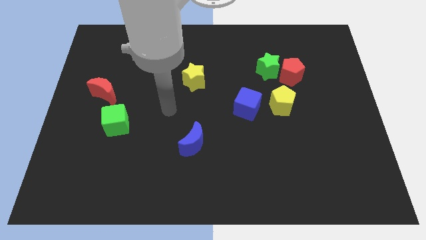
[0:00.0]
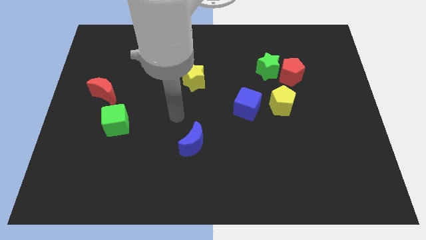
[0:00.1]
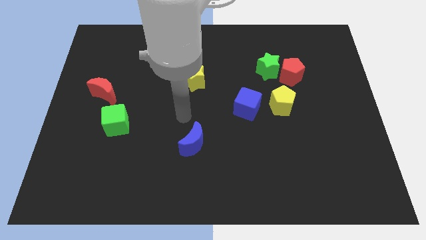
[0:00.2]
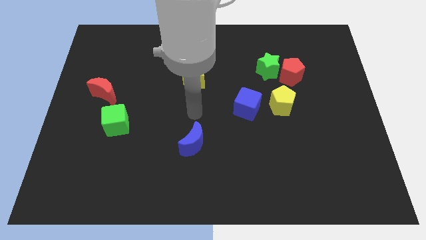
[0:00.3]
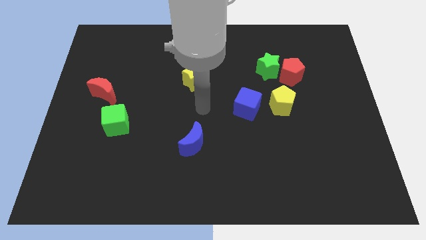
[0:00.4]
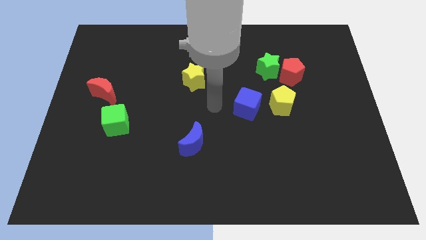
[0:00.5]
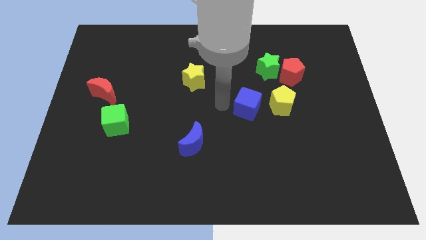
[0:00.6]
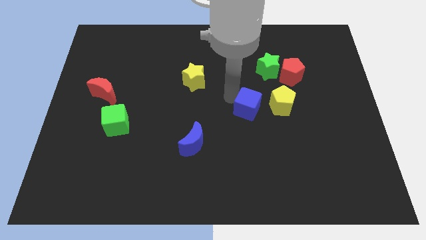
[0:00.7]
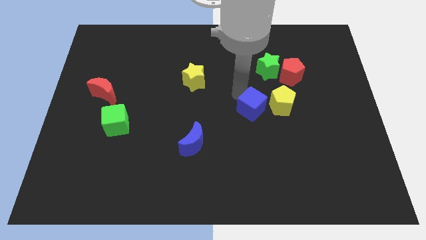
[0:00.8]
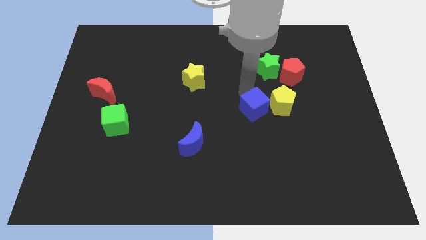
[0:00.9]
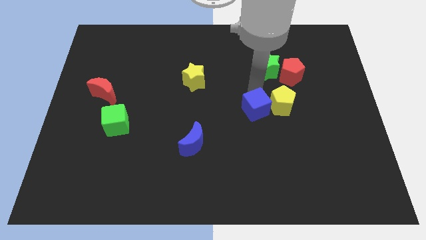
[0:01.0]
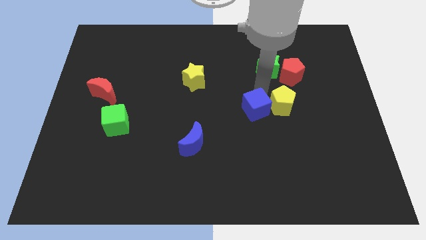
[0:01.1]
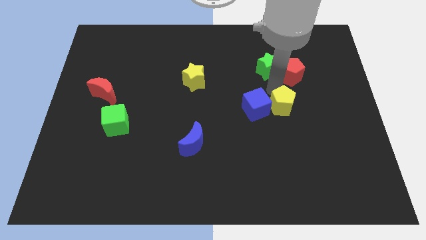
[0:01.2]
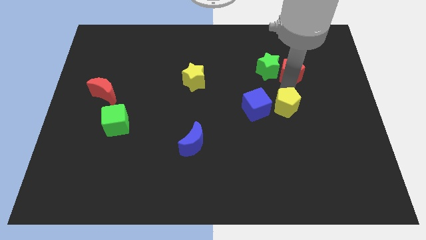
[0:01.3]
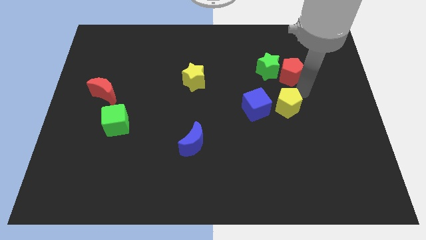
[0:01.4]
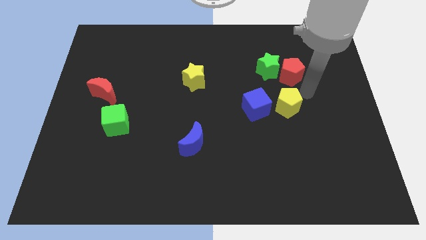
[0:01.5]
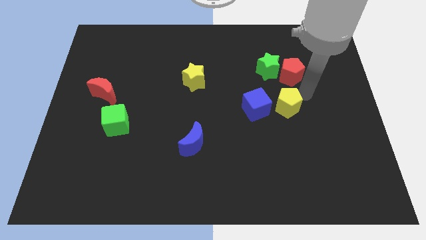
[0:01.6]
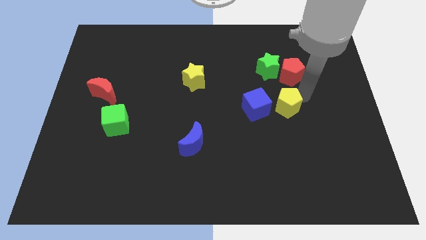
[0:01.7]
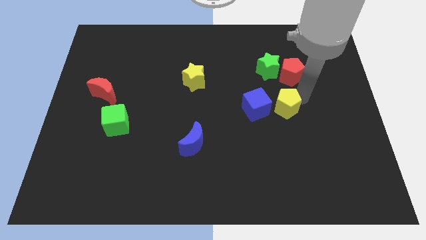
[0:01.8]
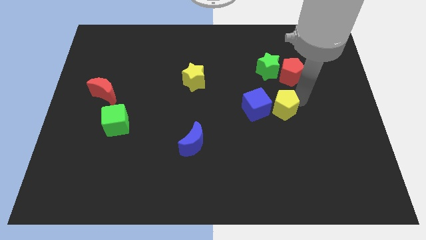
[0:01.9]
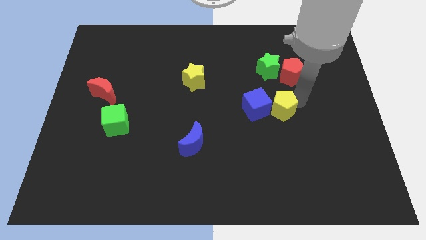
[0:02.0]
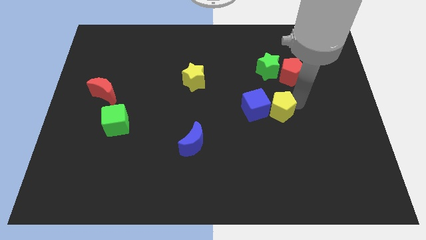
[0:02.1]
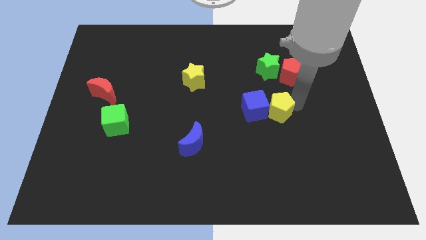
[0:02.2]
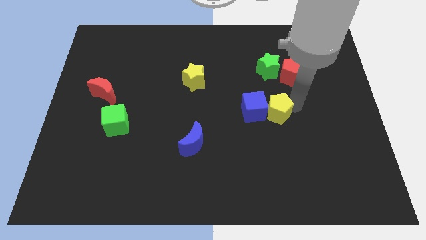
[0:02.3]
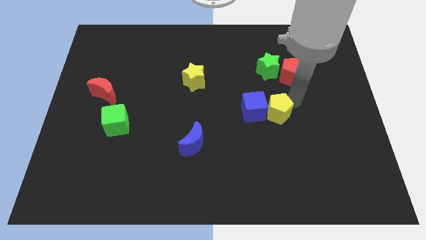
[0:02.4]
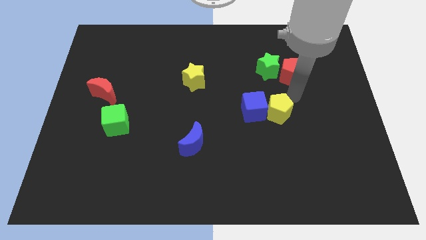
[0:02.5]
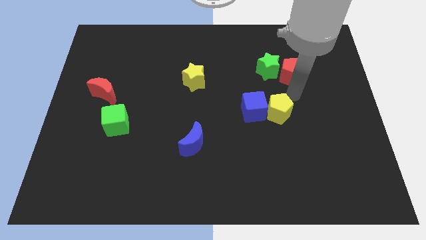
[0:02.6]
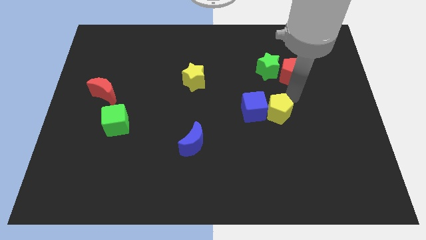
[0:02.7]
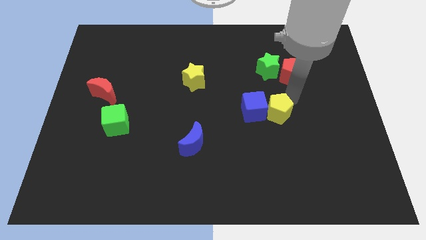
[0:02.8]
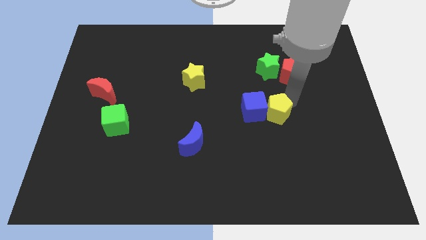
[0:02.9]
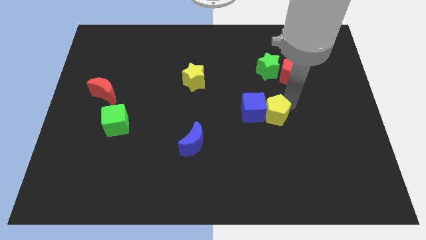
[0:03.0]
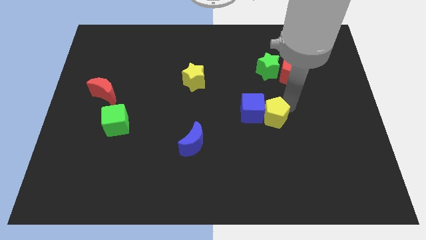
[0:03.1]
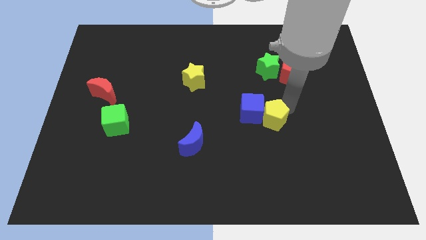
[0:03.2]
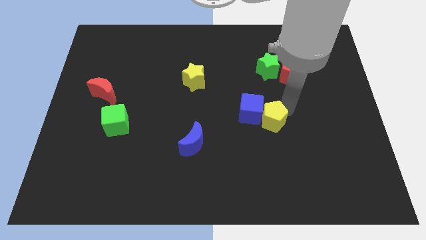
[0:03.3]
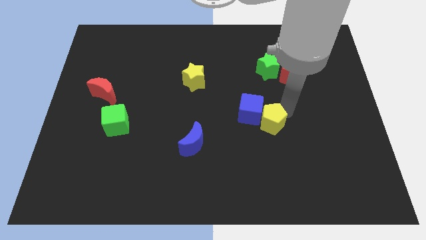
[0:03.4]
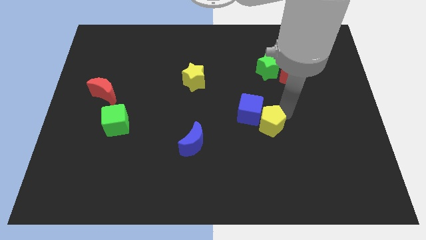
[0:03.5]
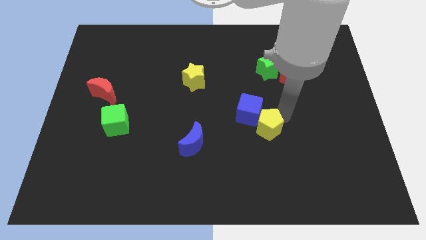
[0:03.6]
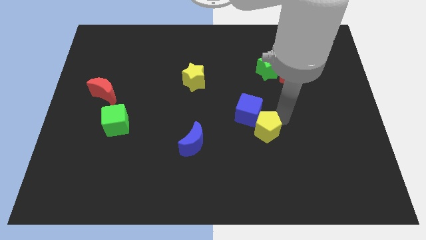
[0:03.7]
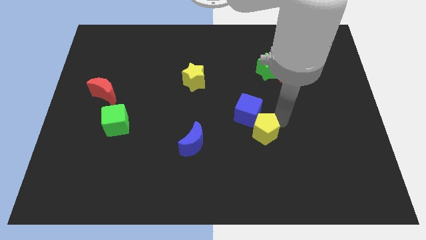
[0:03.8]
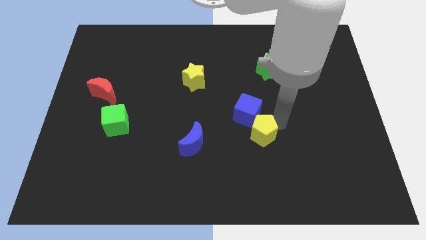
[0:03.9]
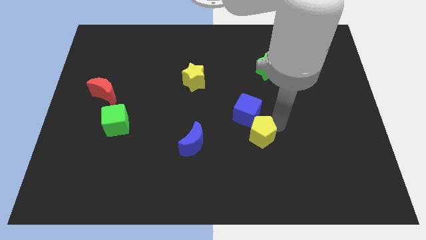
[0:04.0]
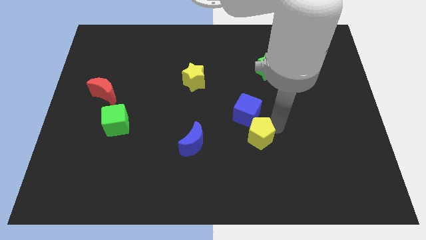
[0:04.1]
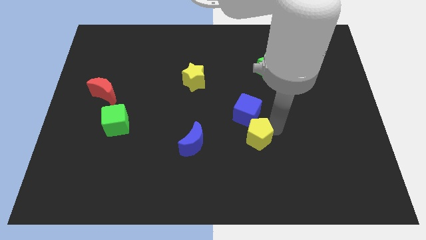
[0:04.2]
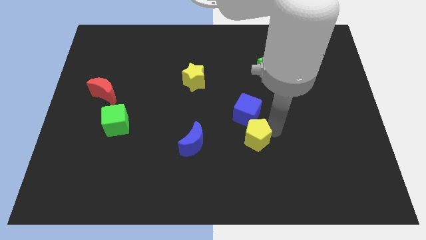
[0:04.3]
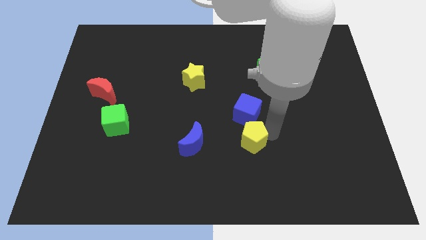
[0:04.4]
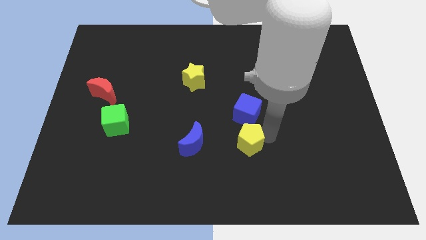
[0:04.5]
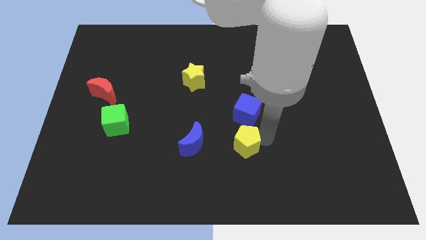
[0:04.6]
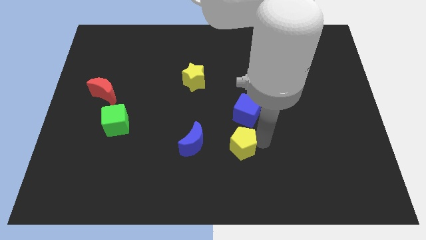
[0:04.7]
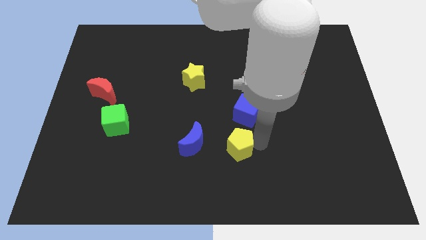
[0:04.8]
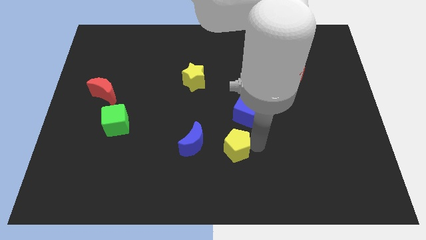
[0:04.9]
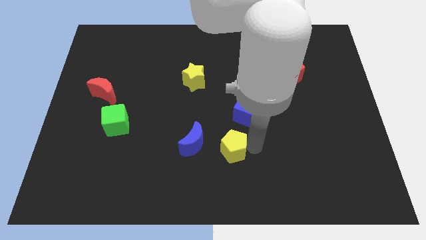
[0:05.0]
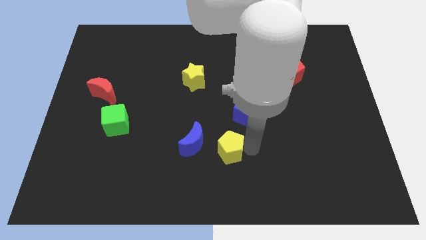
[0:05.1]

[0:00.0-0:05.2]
move the yellow pentagon to the bottom right side of the blue moon

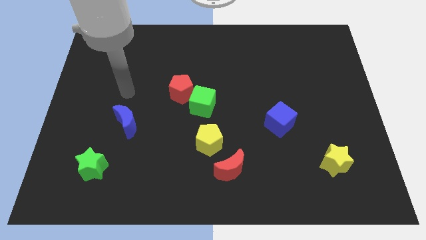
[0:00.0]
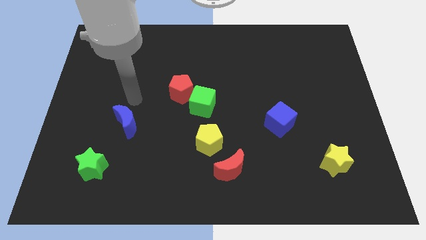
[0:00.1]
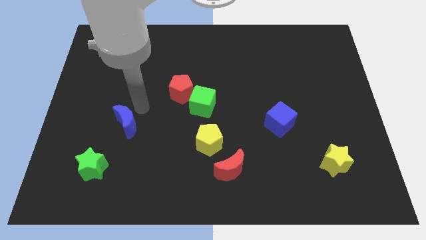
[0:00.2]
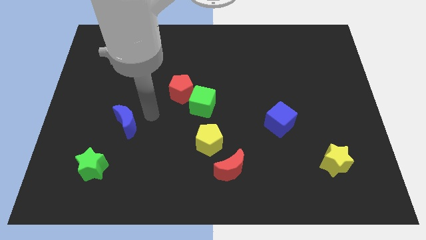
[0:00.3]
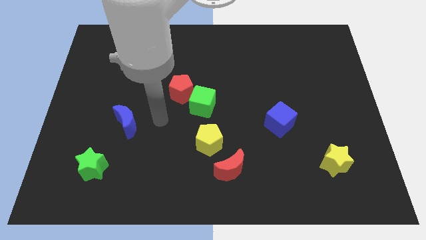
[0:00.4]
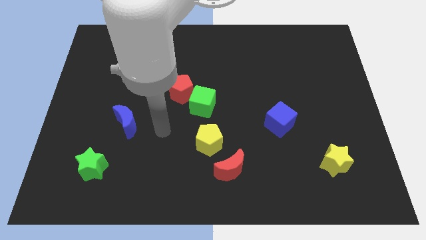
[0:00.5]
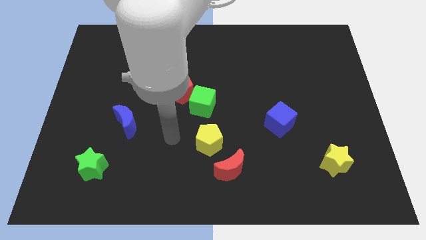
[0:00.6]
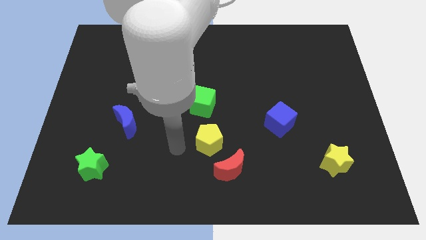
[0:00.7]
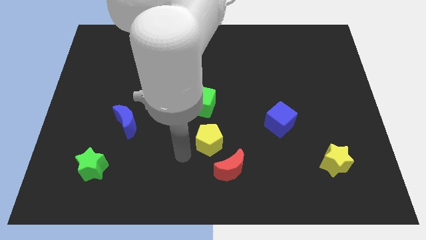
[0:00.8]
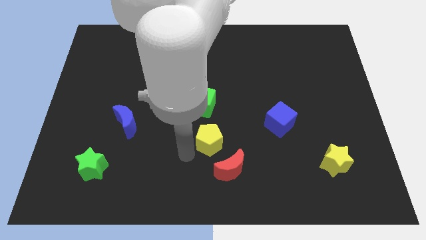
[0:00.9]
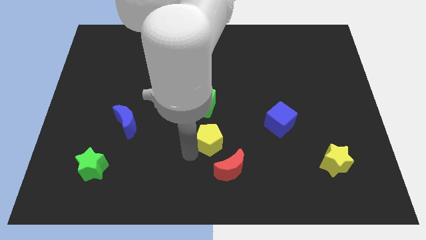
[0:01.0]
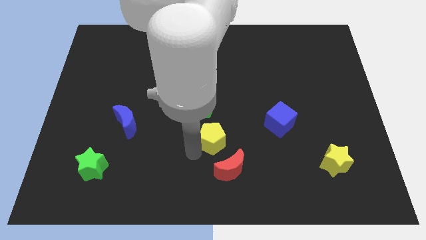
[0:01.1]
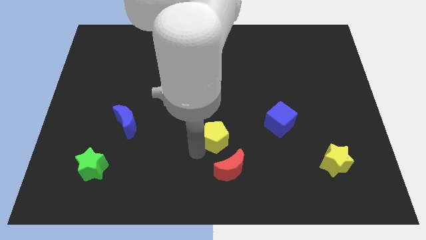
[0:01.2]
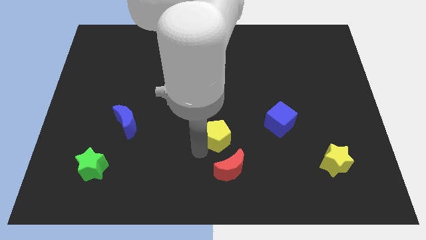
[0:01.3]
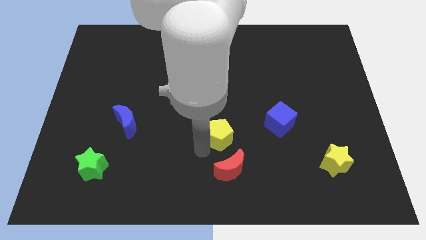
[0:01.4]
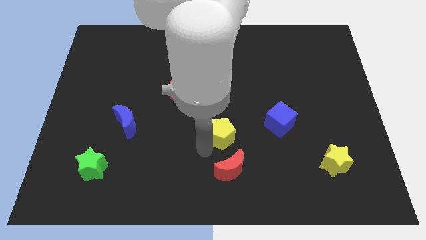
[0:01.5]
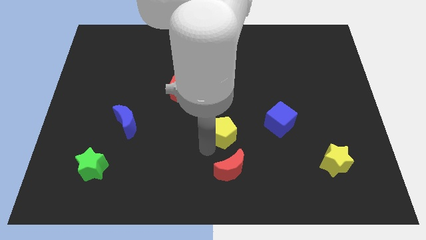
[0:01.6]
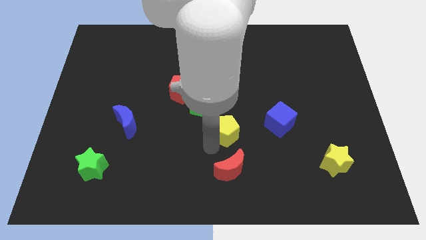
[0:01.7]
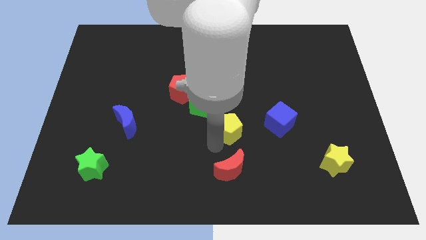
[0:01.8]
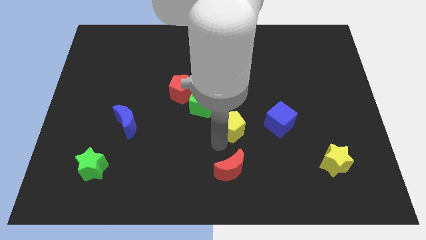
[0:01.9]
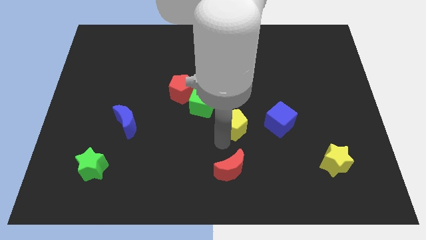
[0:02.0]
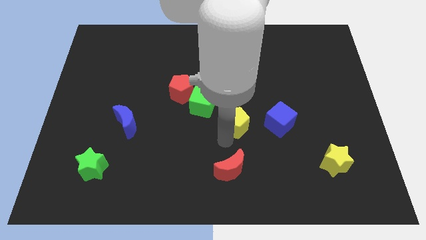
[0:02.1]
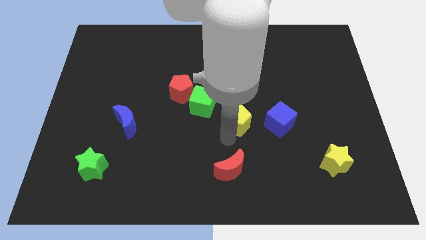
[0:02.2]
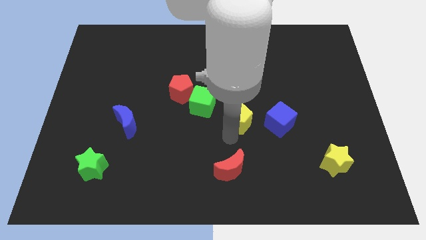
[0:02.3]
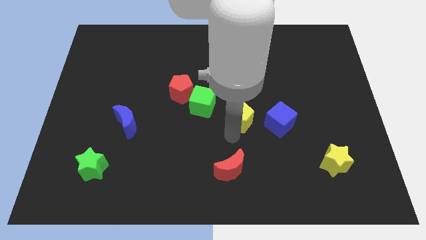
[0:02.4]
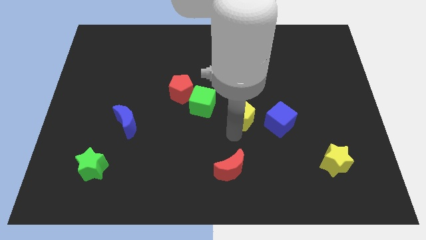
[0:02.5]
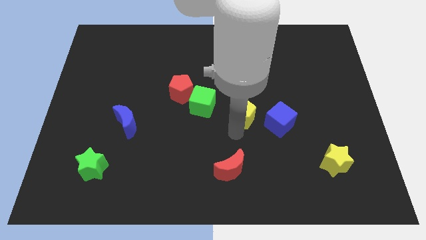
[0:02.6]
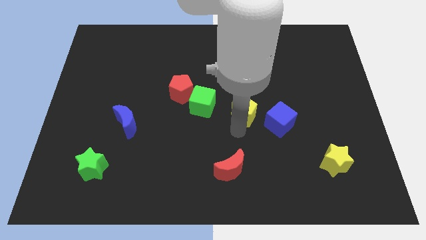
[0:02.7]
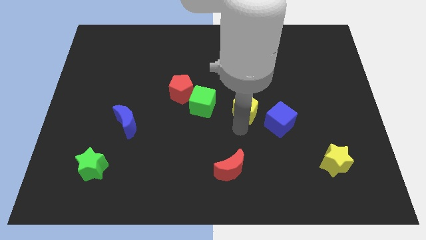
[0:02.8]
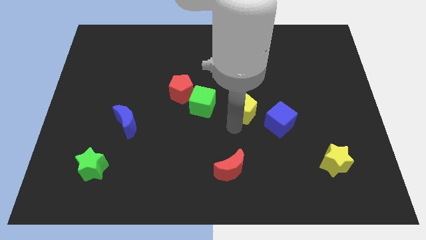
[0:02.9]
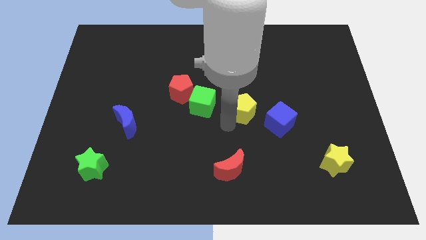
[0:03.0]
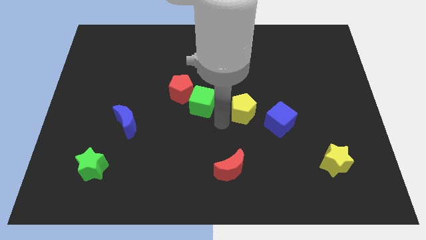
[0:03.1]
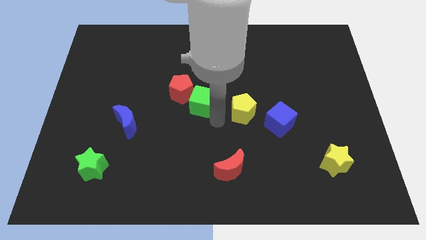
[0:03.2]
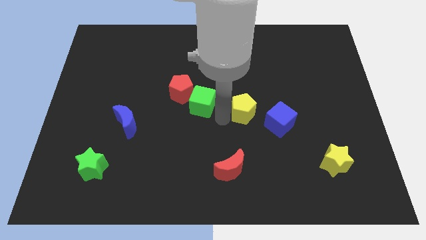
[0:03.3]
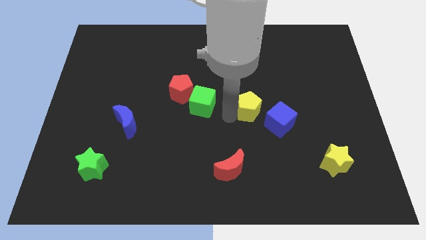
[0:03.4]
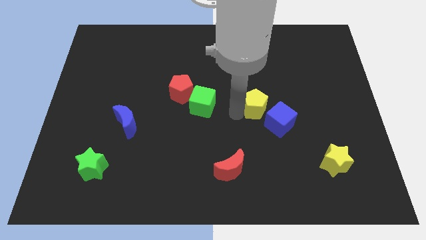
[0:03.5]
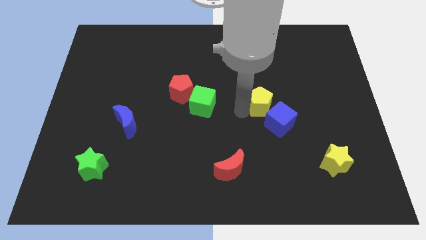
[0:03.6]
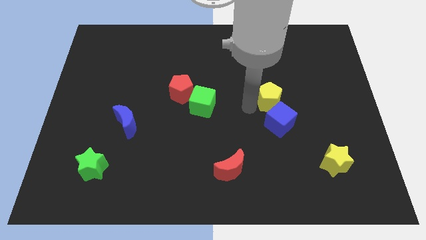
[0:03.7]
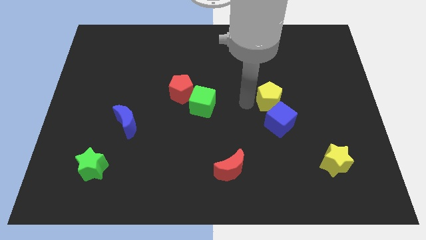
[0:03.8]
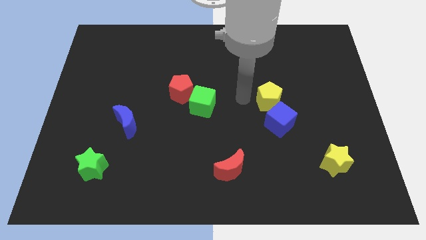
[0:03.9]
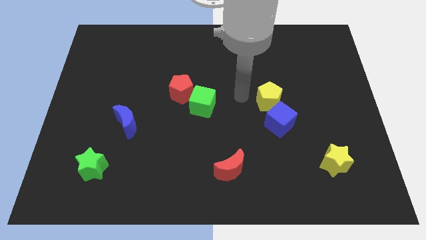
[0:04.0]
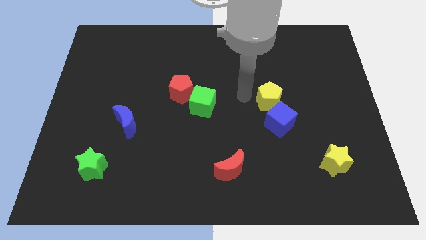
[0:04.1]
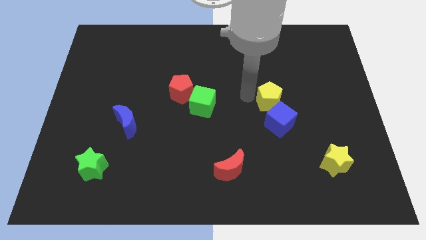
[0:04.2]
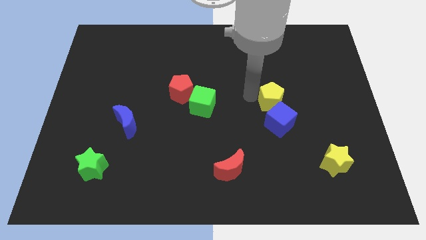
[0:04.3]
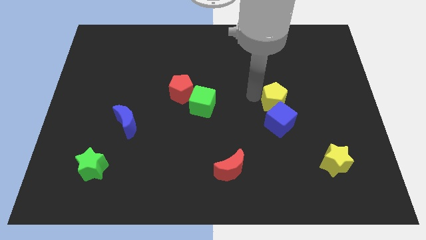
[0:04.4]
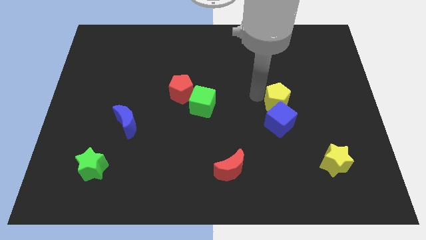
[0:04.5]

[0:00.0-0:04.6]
put the yellow pentagon diagonally up and to the right of the blue cube
